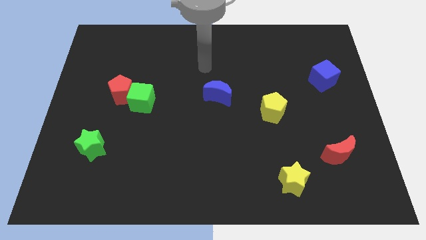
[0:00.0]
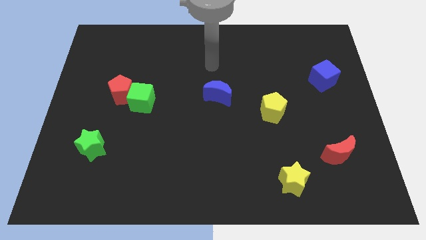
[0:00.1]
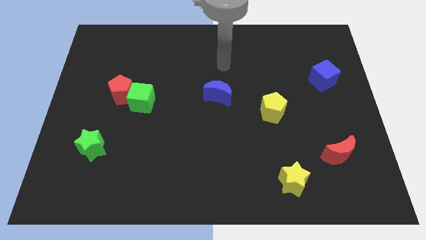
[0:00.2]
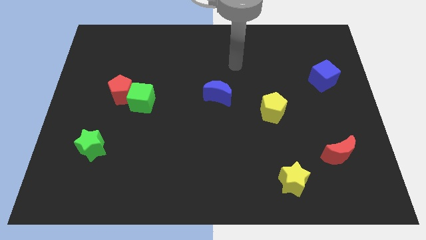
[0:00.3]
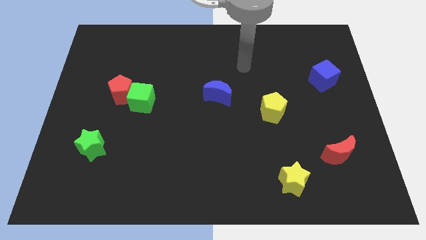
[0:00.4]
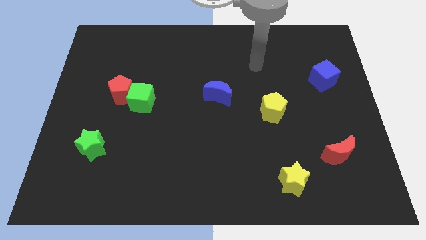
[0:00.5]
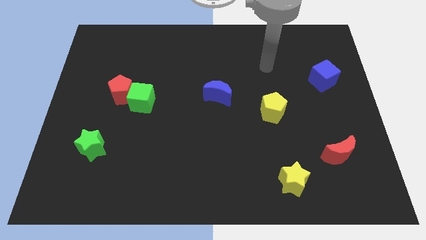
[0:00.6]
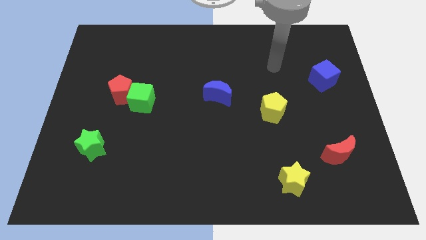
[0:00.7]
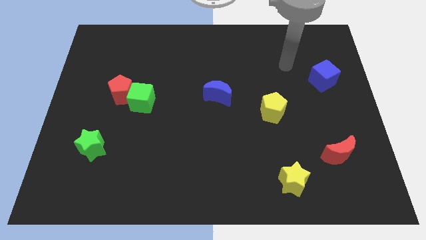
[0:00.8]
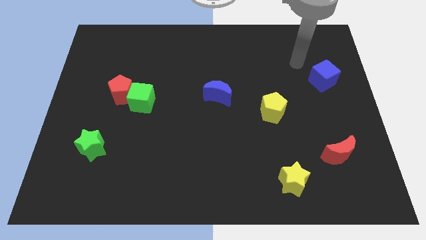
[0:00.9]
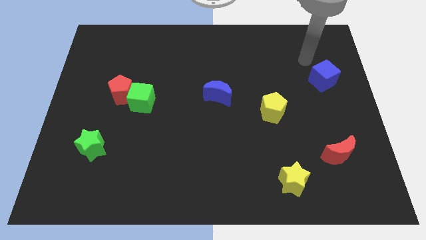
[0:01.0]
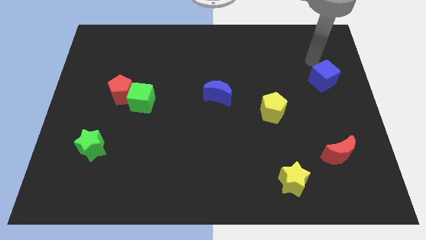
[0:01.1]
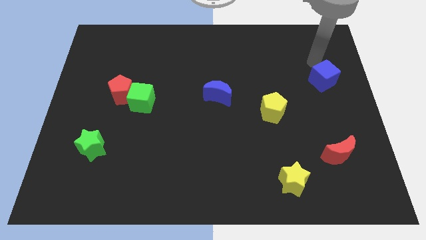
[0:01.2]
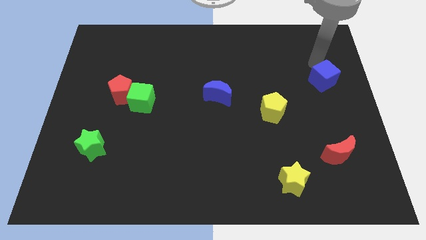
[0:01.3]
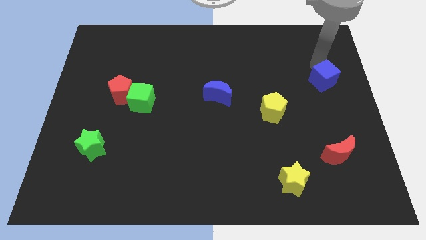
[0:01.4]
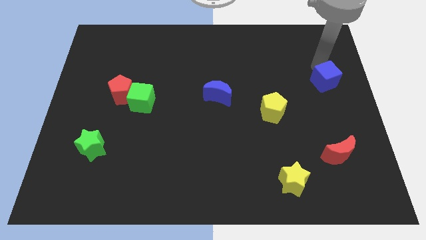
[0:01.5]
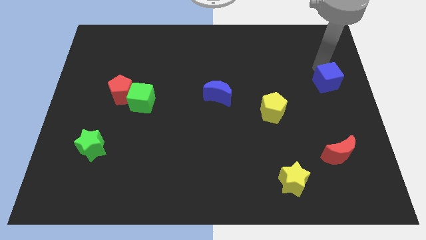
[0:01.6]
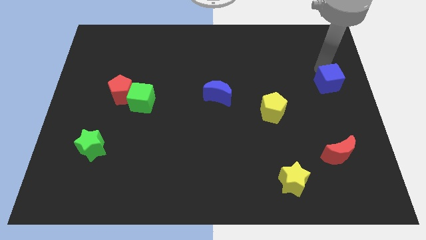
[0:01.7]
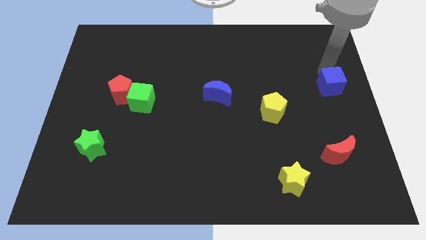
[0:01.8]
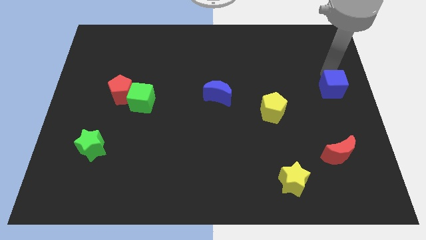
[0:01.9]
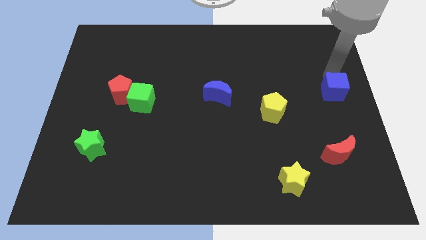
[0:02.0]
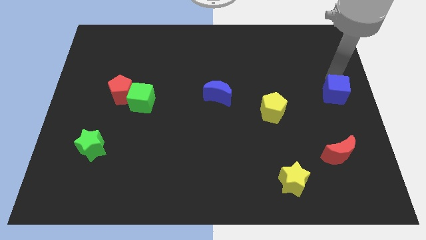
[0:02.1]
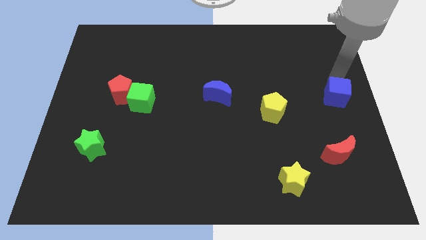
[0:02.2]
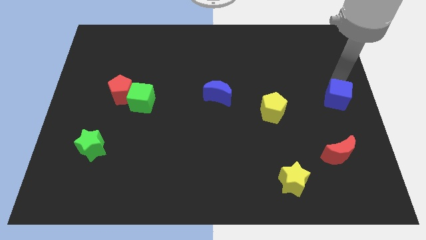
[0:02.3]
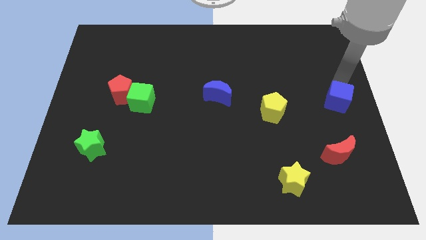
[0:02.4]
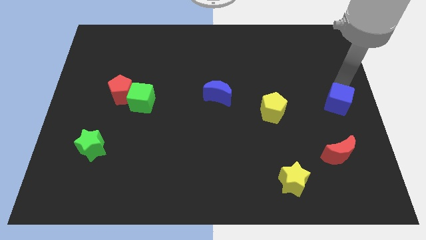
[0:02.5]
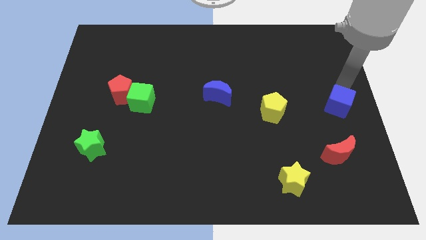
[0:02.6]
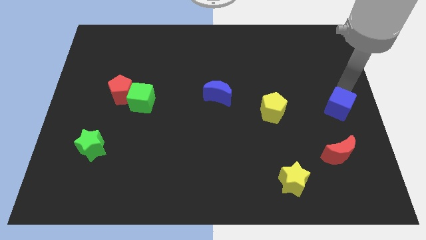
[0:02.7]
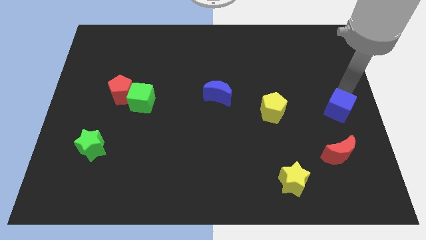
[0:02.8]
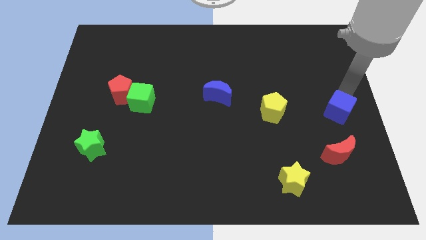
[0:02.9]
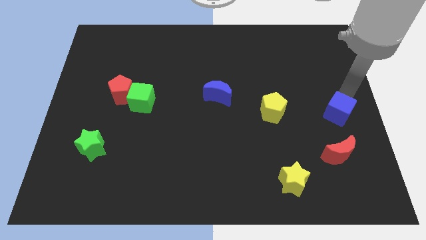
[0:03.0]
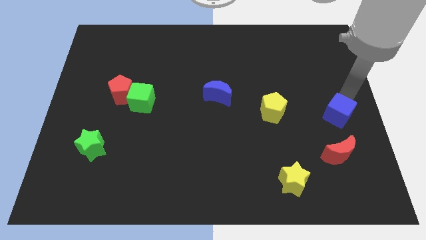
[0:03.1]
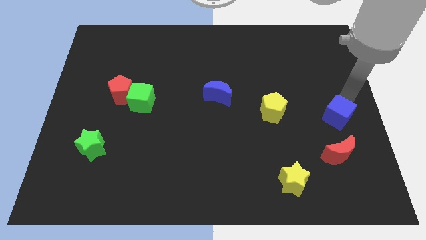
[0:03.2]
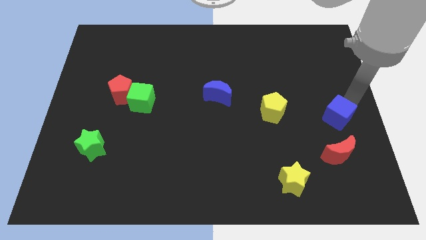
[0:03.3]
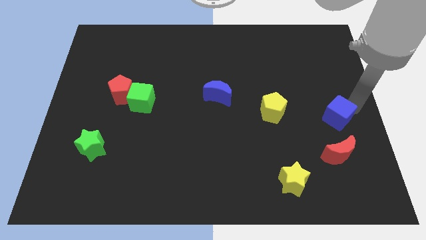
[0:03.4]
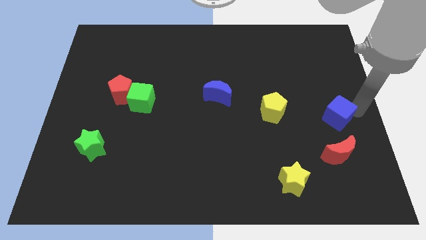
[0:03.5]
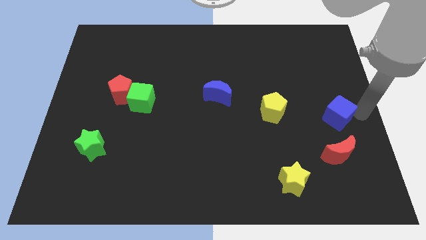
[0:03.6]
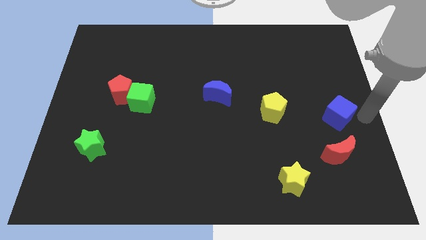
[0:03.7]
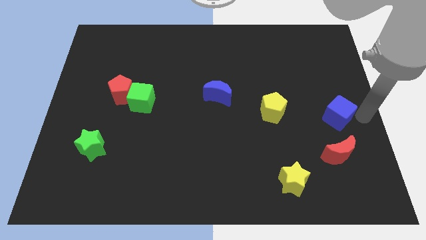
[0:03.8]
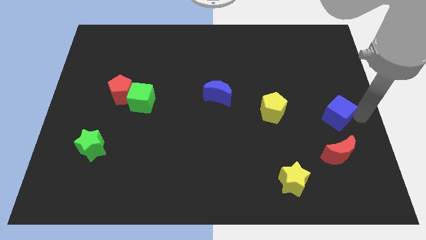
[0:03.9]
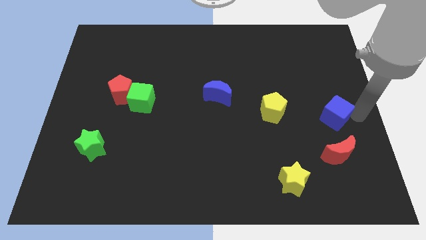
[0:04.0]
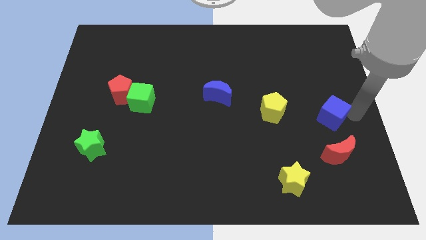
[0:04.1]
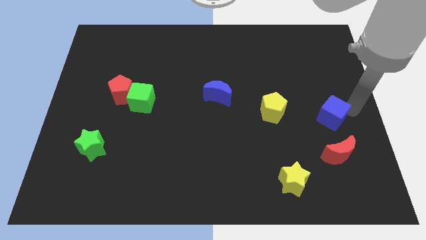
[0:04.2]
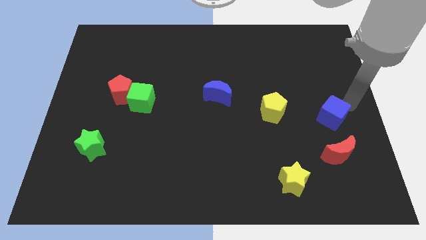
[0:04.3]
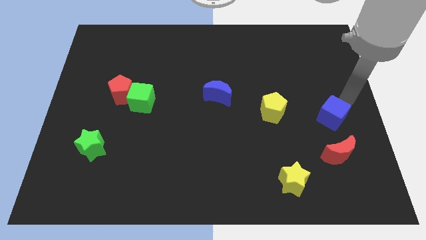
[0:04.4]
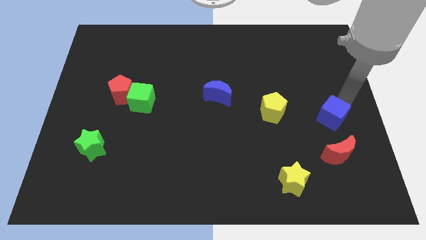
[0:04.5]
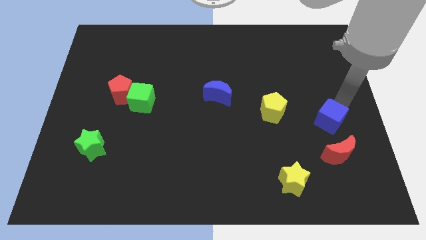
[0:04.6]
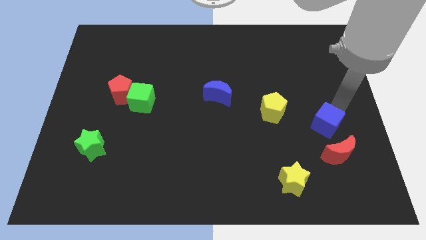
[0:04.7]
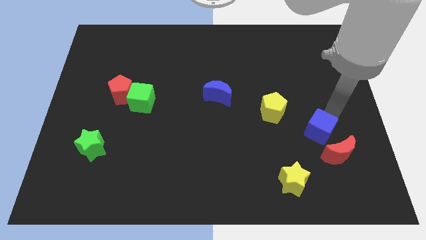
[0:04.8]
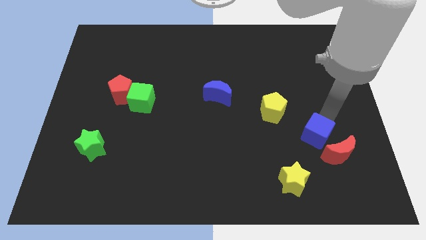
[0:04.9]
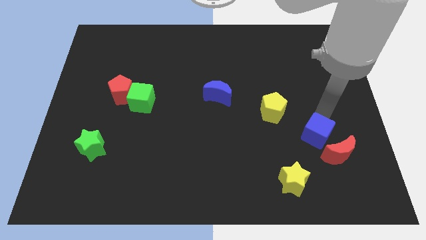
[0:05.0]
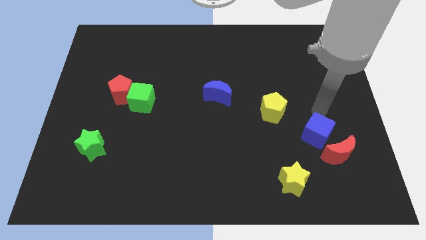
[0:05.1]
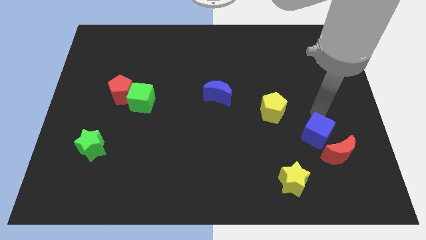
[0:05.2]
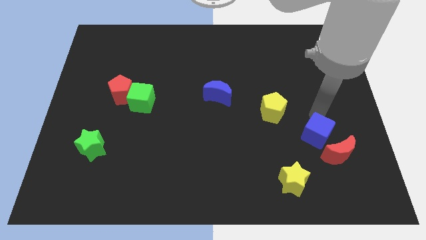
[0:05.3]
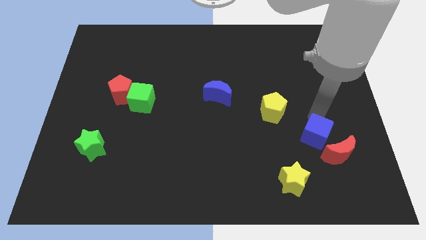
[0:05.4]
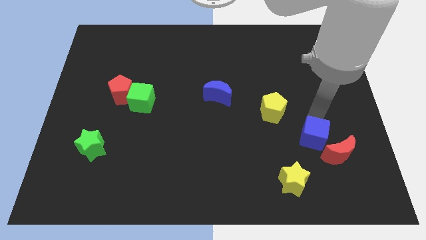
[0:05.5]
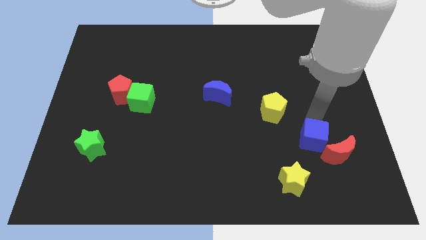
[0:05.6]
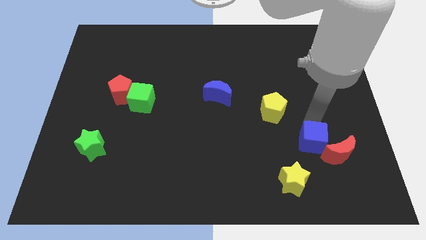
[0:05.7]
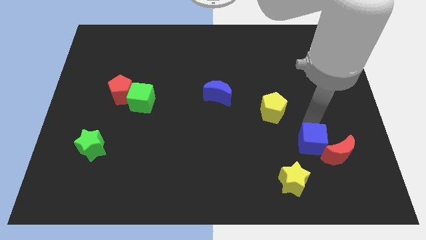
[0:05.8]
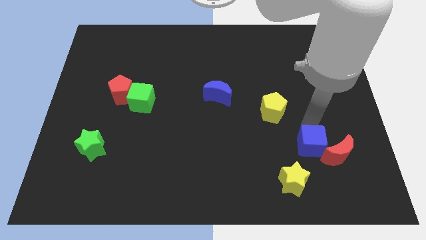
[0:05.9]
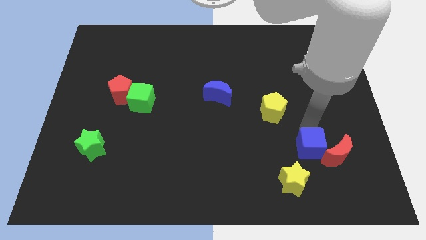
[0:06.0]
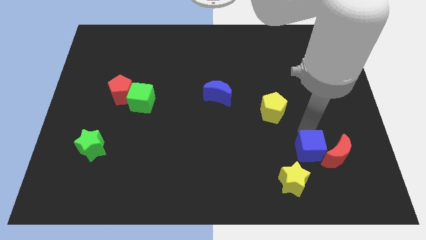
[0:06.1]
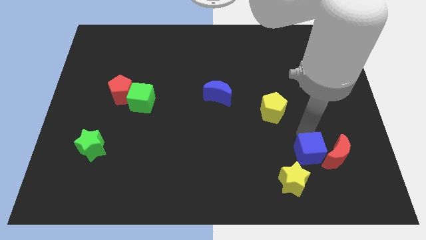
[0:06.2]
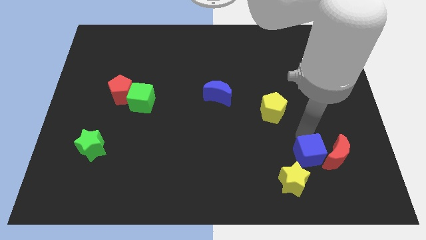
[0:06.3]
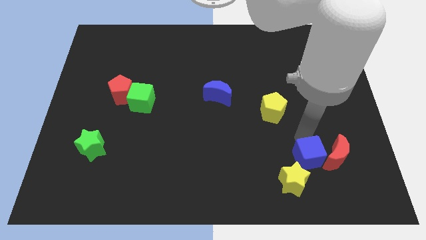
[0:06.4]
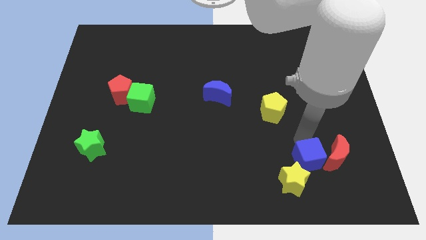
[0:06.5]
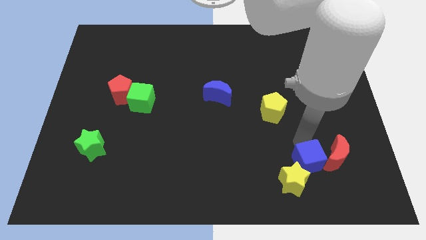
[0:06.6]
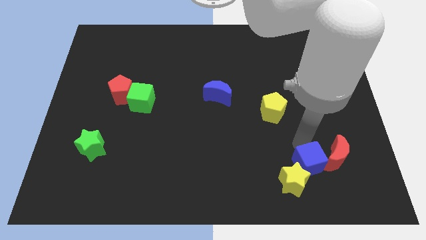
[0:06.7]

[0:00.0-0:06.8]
move the blue cube right of the yellow star

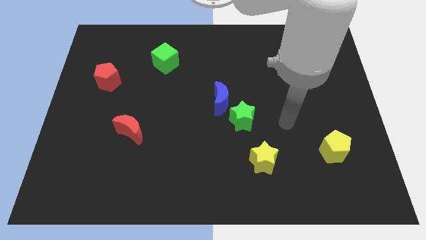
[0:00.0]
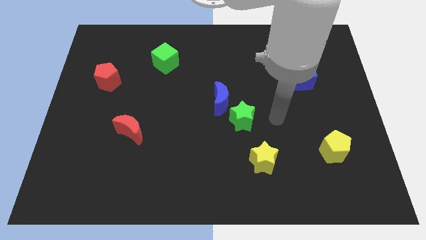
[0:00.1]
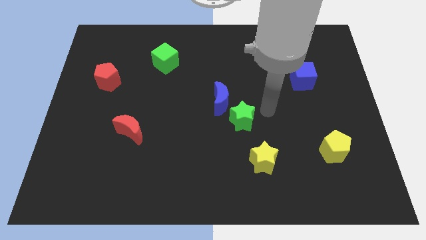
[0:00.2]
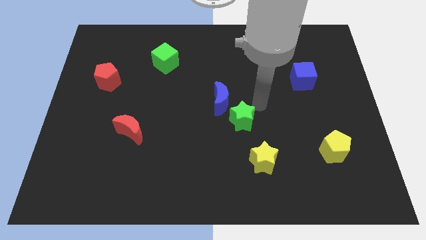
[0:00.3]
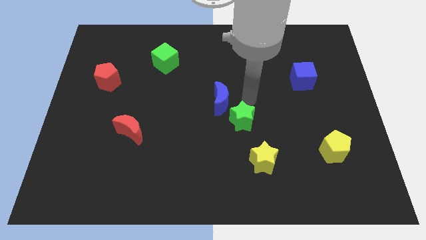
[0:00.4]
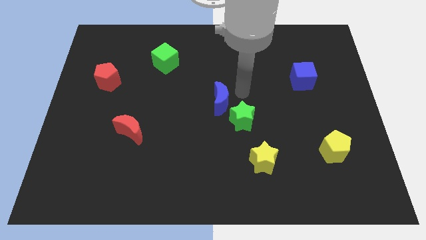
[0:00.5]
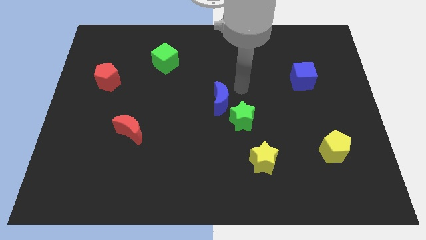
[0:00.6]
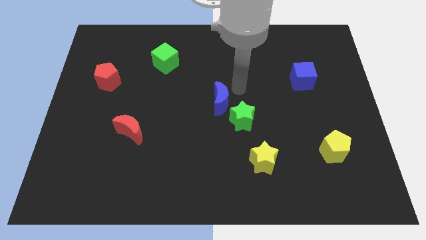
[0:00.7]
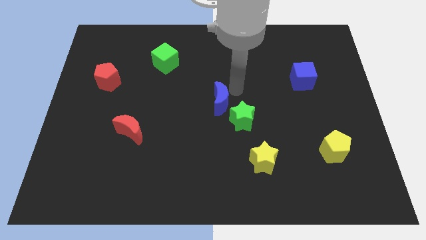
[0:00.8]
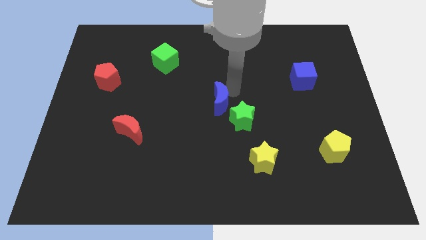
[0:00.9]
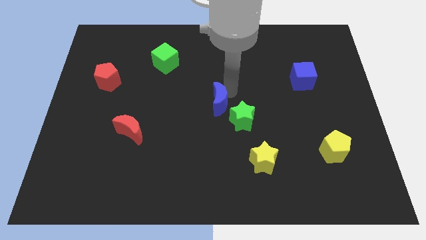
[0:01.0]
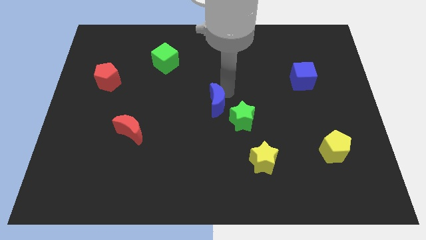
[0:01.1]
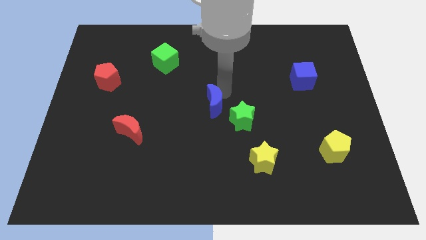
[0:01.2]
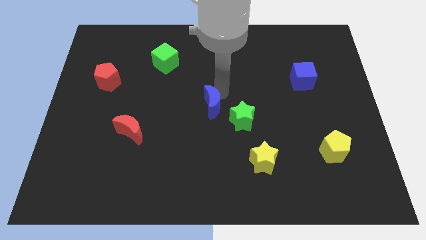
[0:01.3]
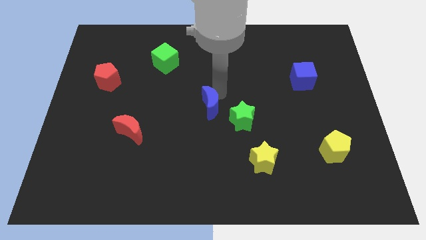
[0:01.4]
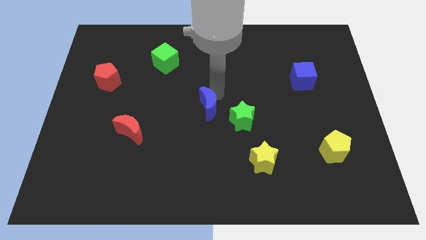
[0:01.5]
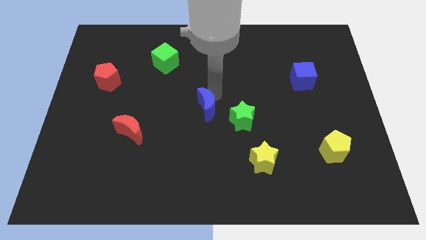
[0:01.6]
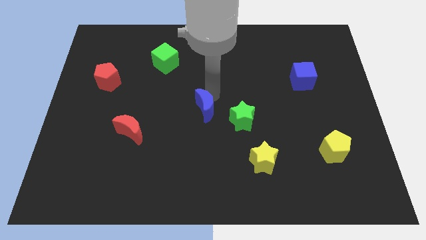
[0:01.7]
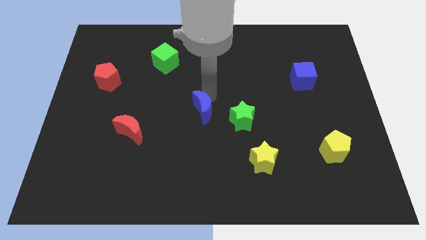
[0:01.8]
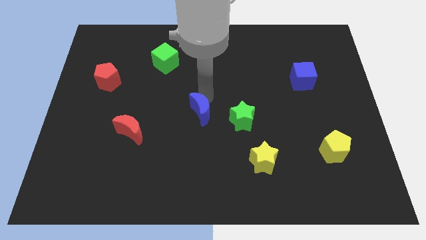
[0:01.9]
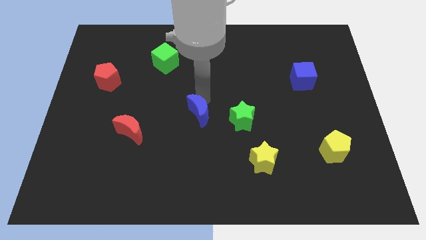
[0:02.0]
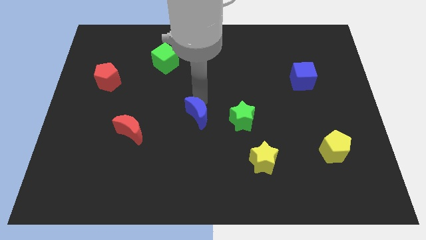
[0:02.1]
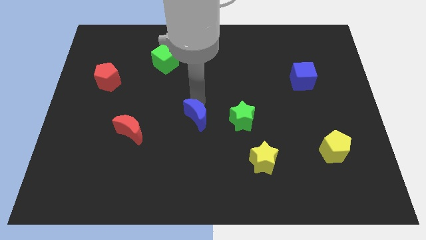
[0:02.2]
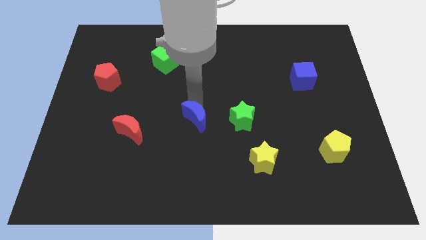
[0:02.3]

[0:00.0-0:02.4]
put the blue moon to the right of the red moon
